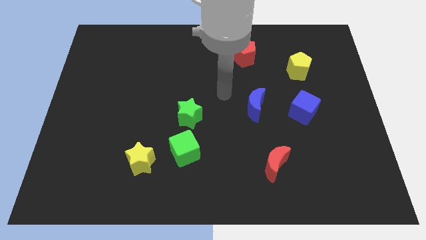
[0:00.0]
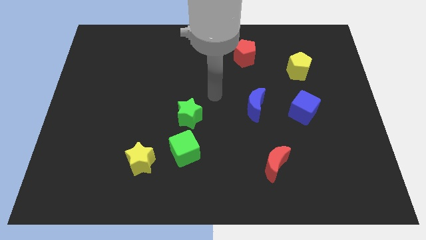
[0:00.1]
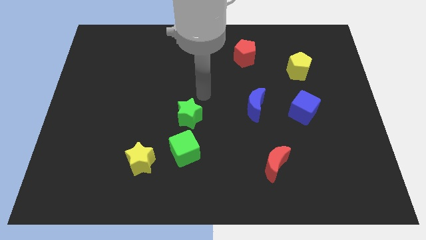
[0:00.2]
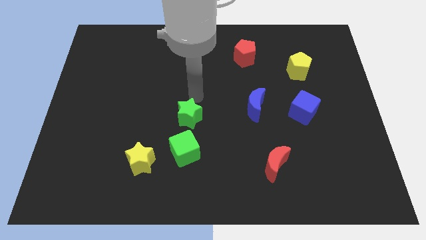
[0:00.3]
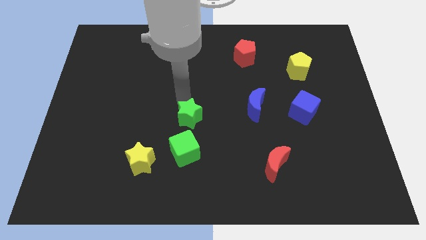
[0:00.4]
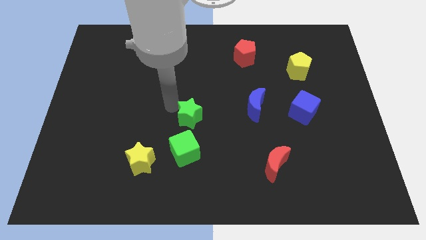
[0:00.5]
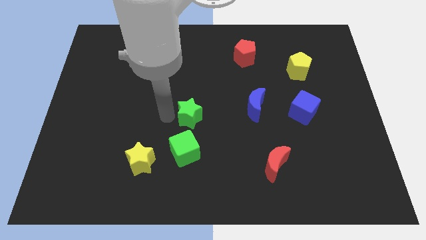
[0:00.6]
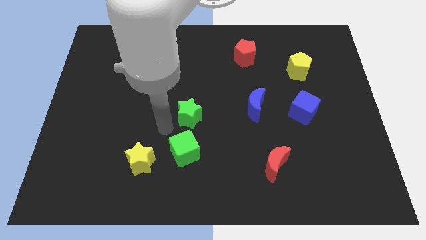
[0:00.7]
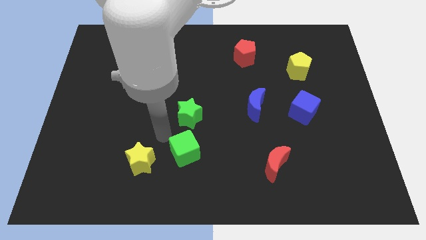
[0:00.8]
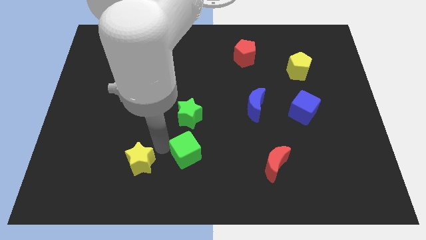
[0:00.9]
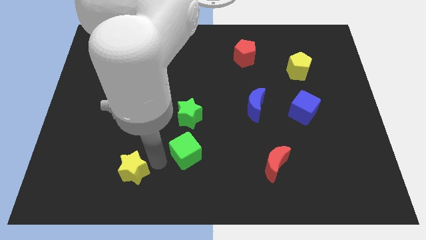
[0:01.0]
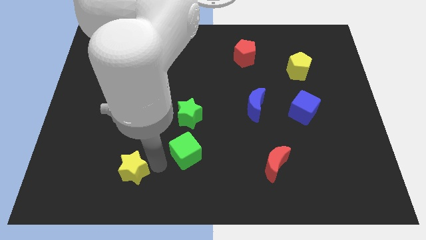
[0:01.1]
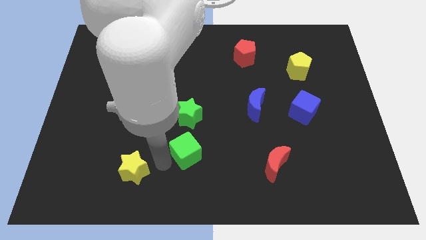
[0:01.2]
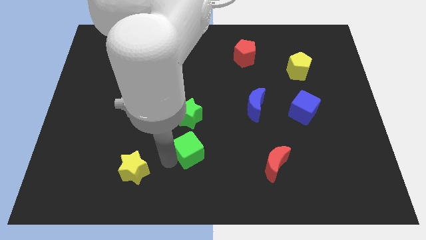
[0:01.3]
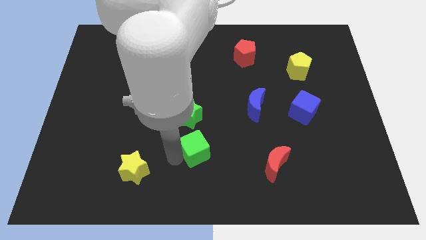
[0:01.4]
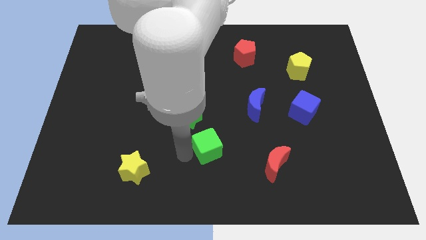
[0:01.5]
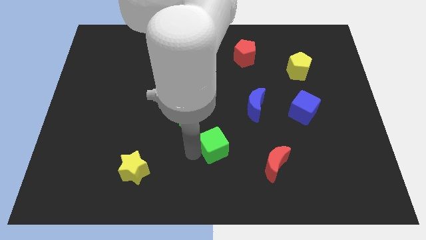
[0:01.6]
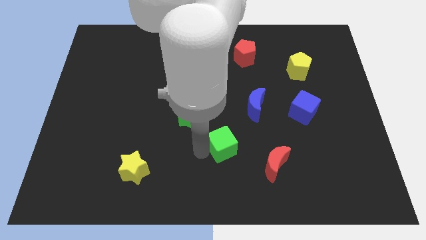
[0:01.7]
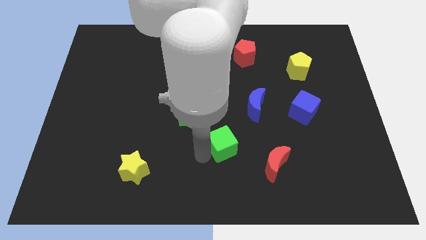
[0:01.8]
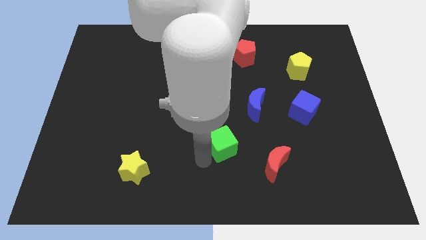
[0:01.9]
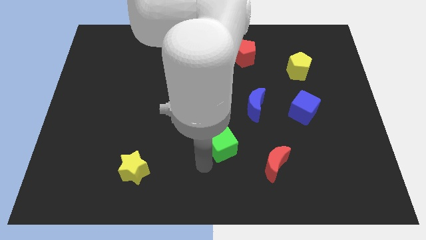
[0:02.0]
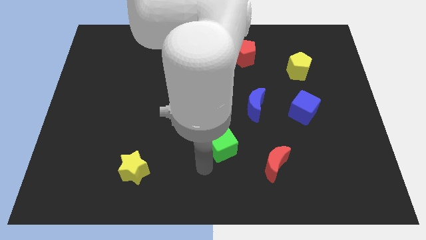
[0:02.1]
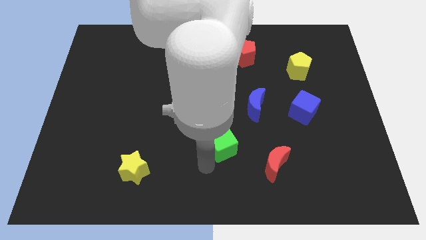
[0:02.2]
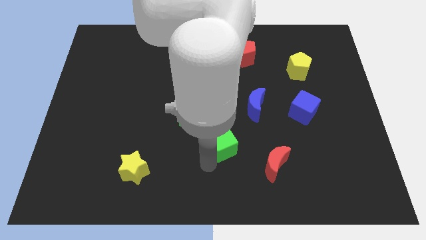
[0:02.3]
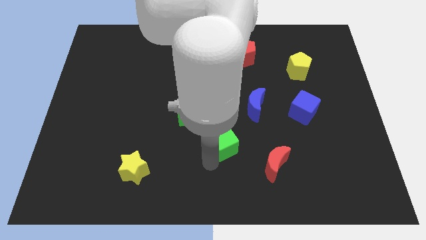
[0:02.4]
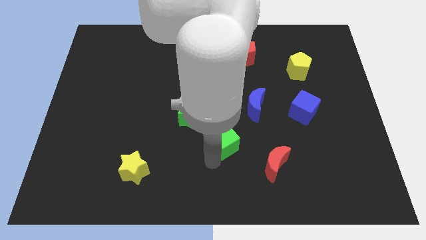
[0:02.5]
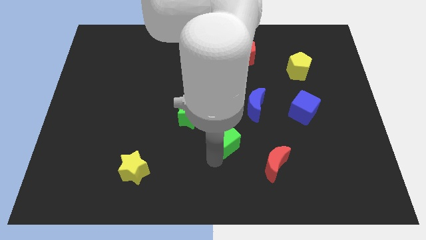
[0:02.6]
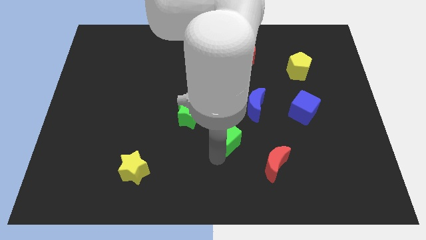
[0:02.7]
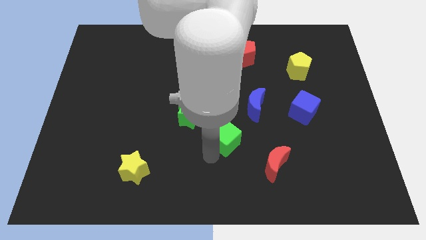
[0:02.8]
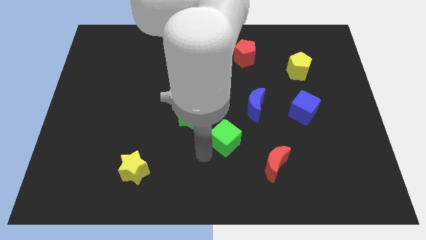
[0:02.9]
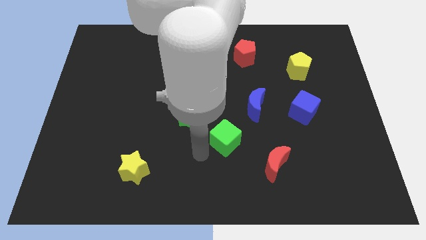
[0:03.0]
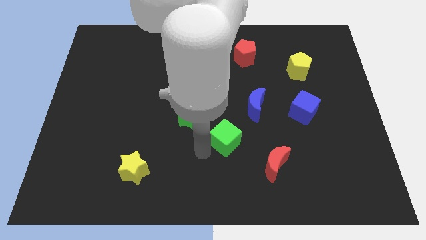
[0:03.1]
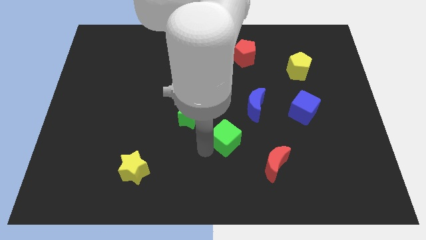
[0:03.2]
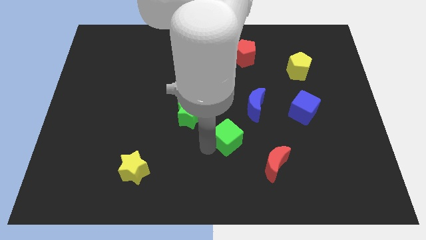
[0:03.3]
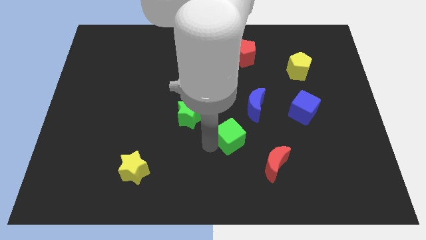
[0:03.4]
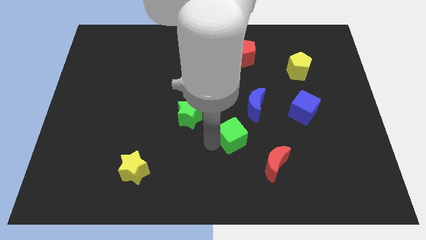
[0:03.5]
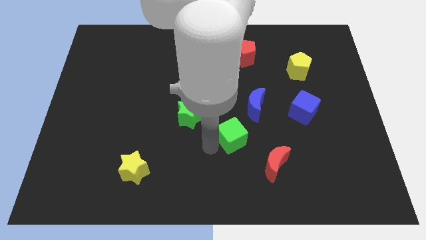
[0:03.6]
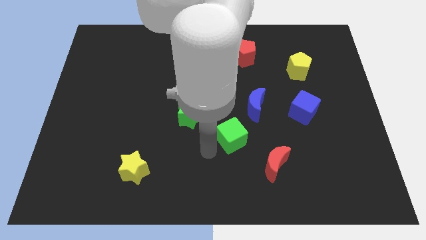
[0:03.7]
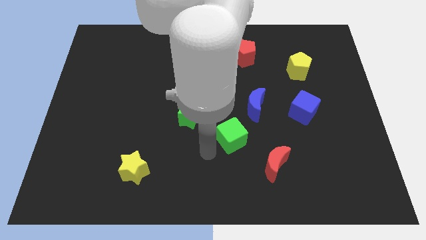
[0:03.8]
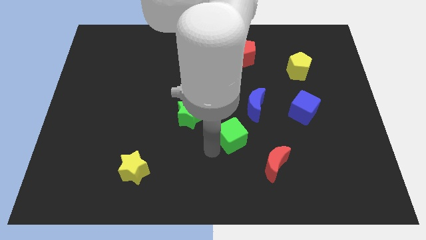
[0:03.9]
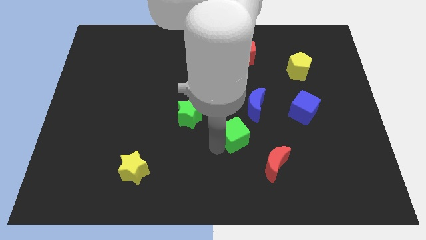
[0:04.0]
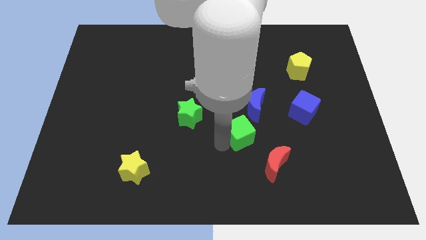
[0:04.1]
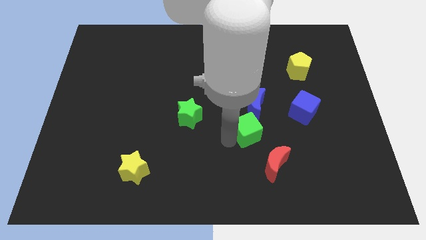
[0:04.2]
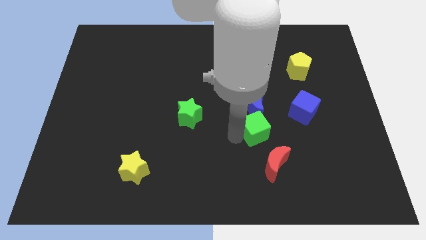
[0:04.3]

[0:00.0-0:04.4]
put the green cube above the red moon

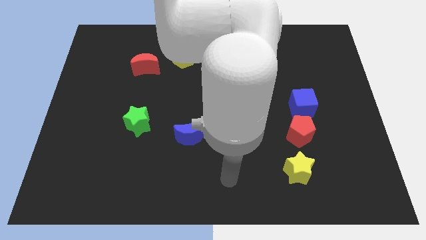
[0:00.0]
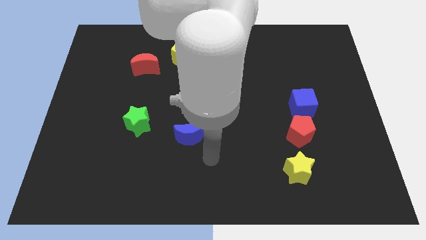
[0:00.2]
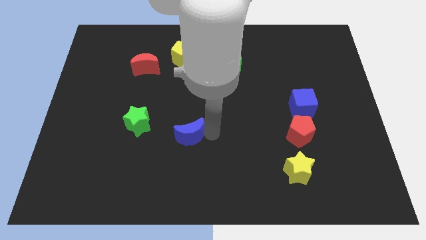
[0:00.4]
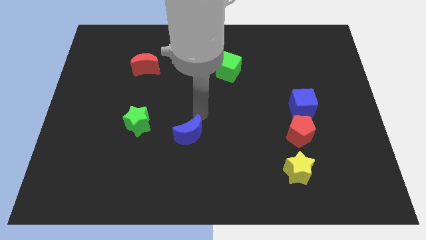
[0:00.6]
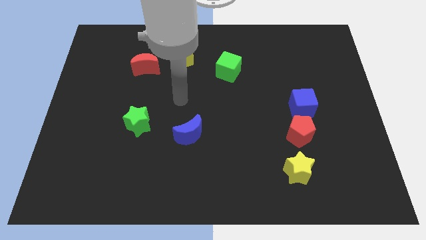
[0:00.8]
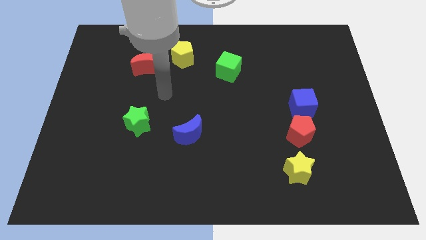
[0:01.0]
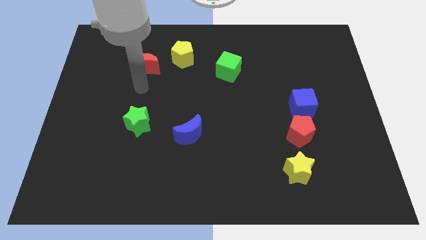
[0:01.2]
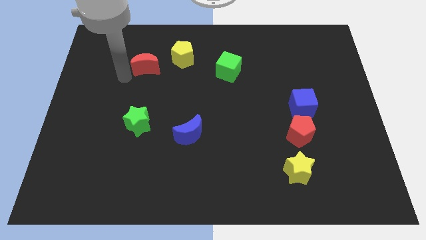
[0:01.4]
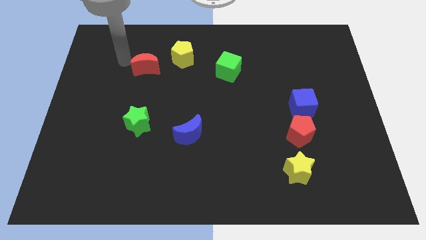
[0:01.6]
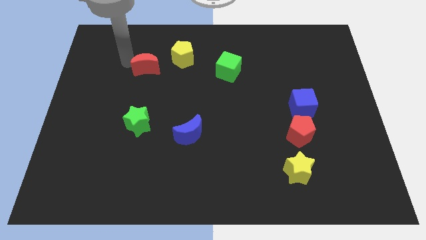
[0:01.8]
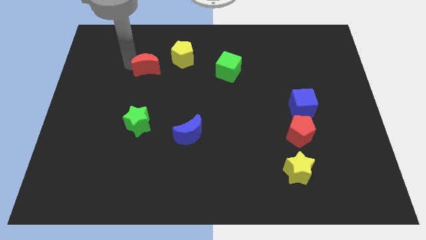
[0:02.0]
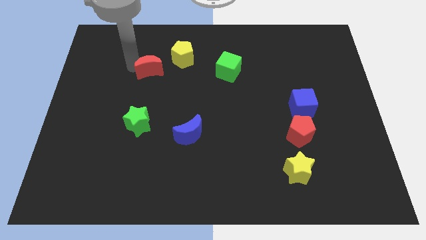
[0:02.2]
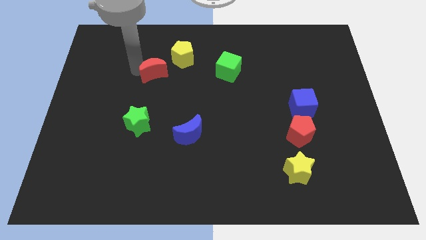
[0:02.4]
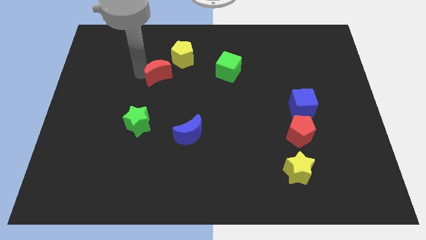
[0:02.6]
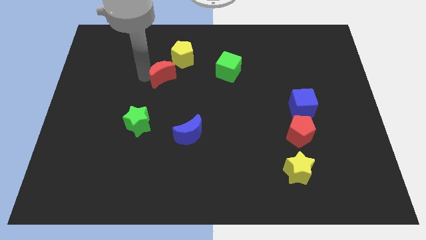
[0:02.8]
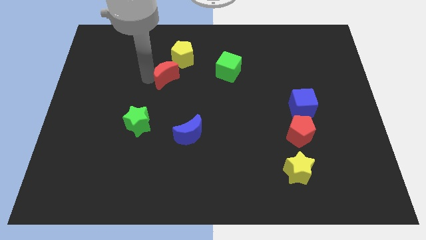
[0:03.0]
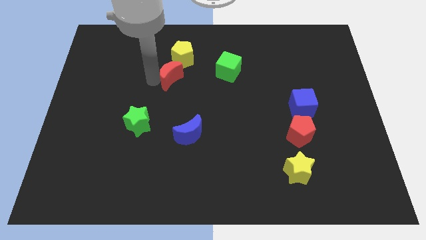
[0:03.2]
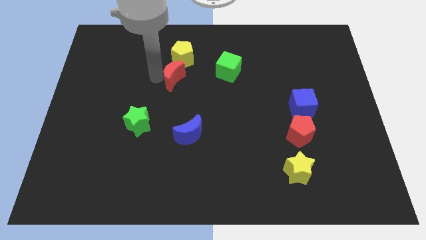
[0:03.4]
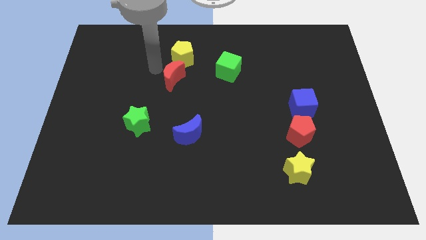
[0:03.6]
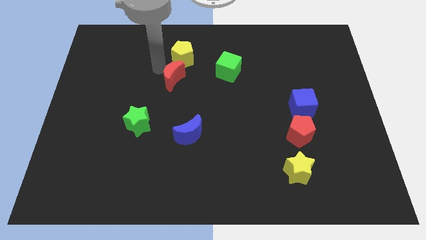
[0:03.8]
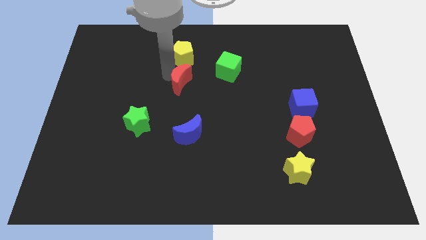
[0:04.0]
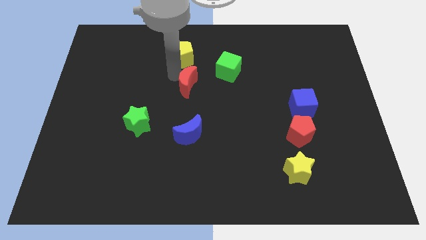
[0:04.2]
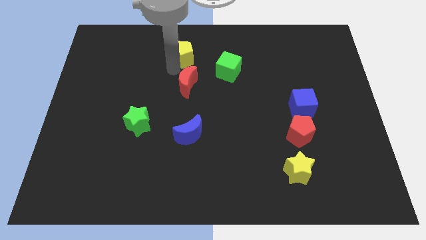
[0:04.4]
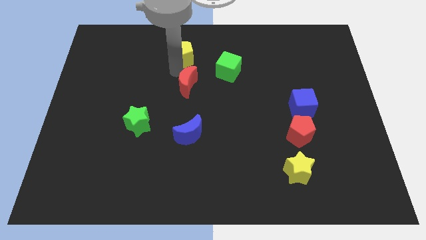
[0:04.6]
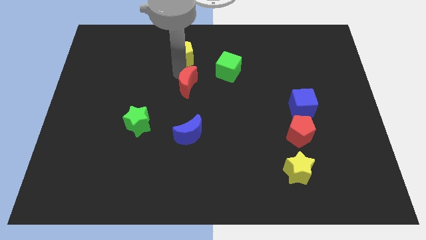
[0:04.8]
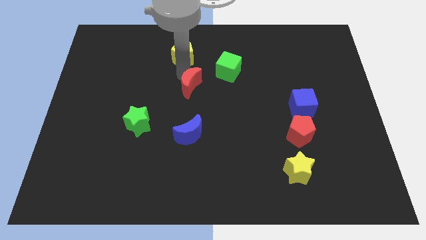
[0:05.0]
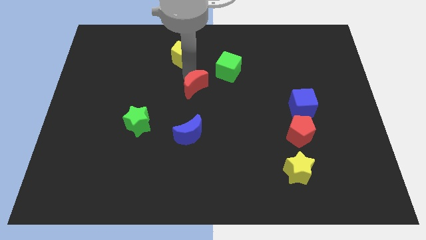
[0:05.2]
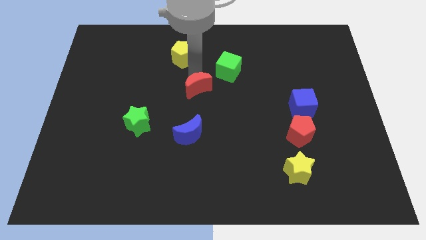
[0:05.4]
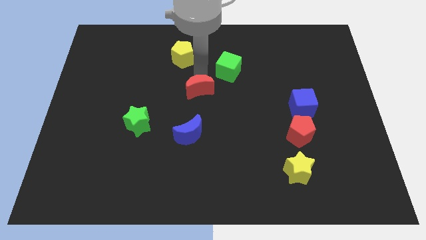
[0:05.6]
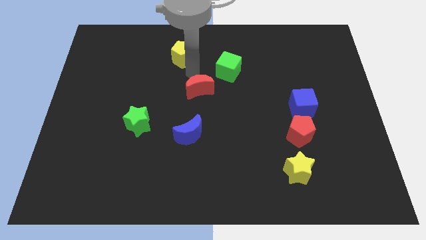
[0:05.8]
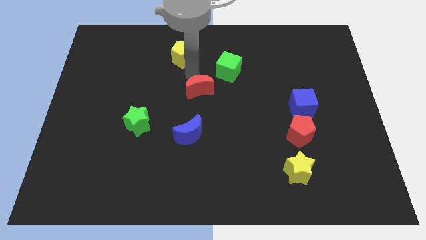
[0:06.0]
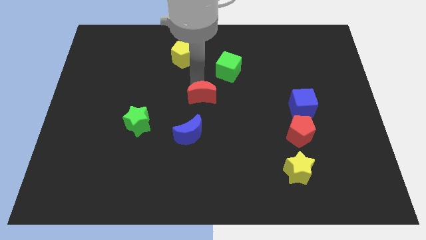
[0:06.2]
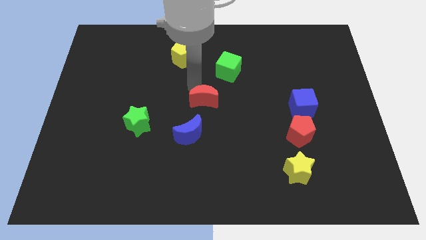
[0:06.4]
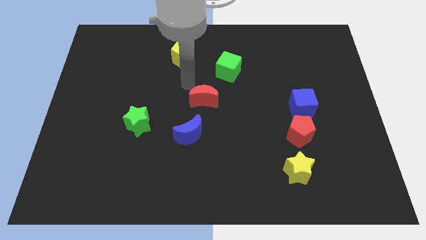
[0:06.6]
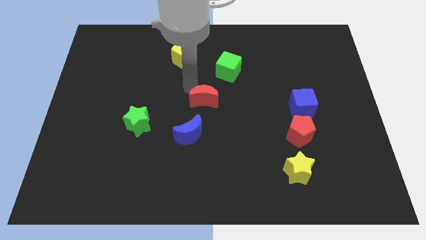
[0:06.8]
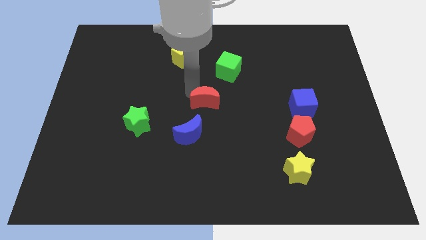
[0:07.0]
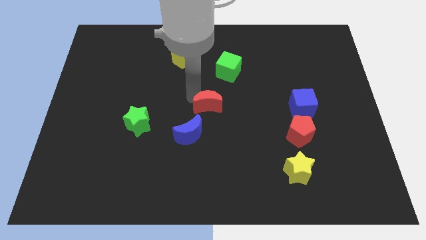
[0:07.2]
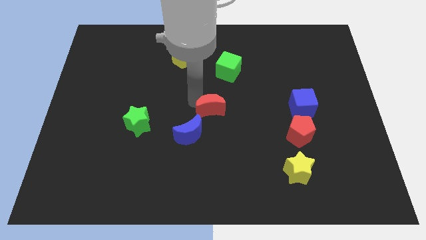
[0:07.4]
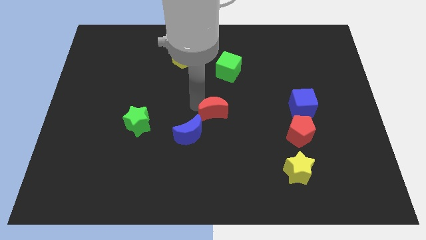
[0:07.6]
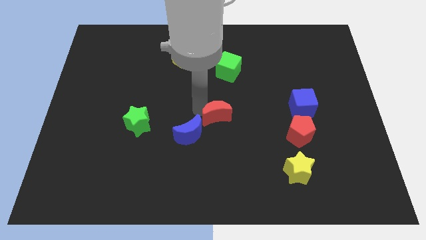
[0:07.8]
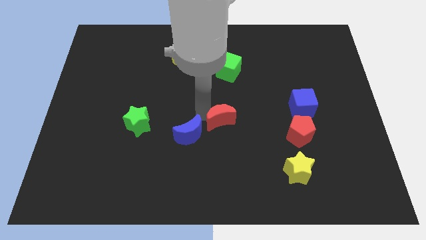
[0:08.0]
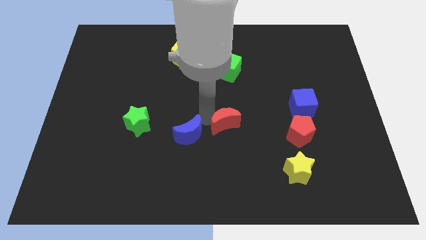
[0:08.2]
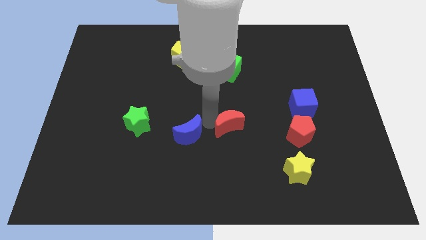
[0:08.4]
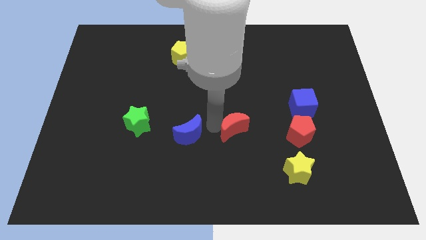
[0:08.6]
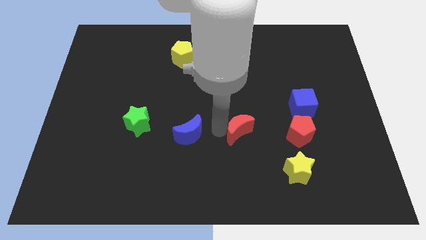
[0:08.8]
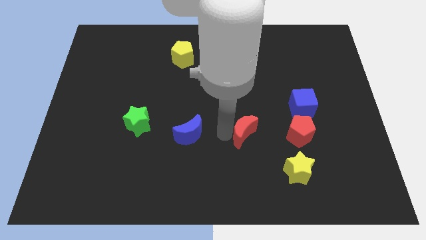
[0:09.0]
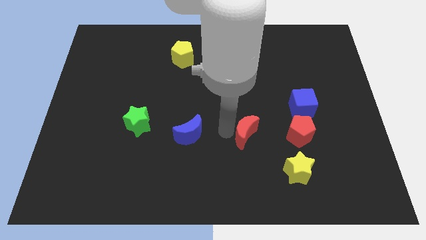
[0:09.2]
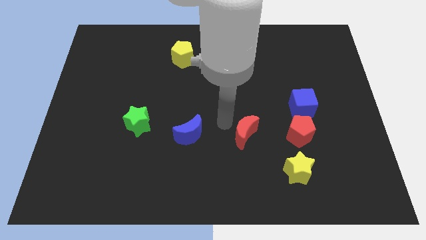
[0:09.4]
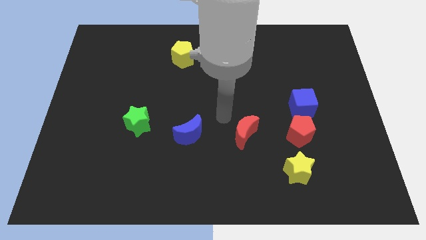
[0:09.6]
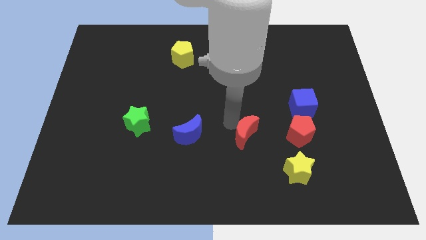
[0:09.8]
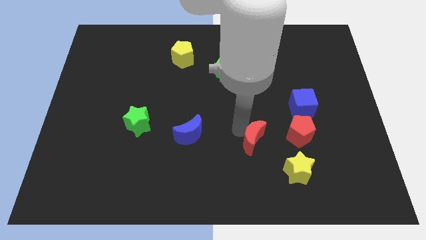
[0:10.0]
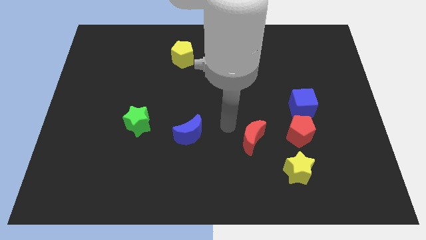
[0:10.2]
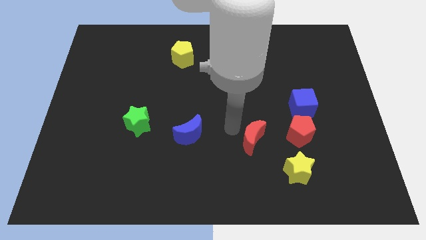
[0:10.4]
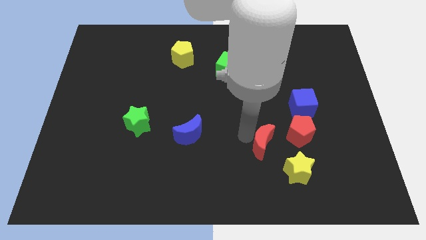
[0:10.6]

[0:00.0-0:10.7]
slide the red moon to the bottom left side of the red pentagon
